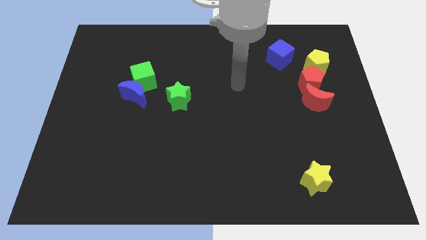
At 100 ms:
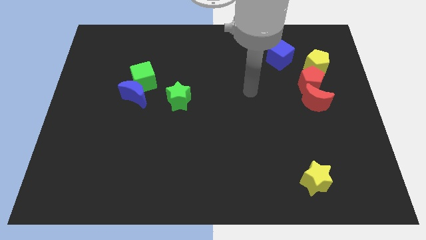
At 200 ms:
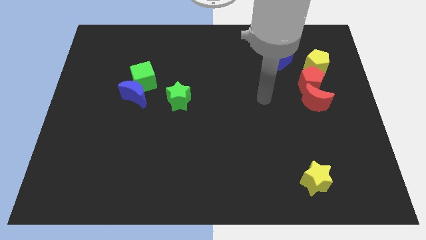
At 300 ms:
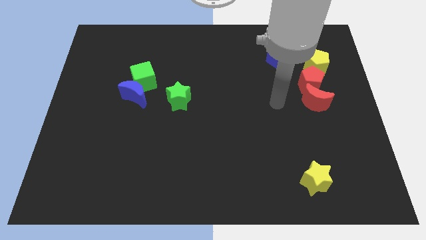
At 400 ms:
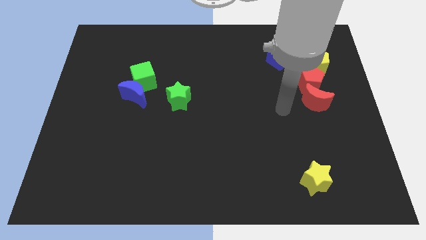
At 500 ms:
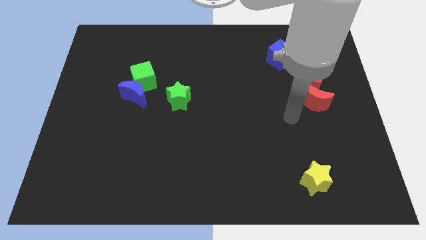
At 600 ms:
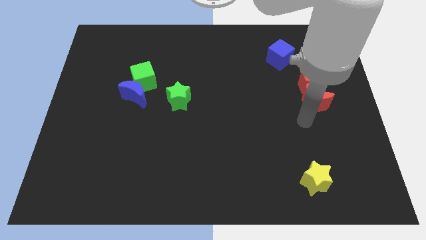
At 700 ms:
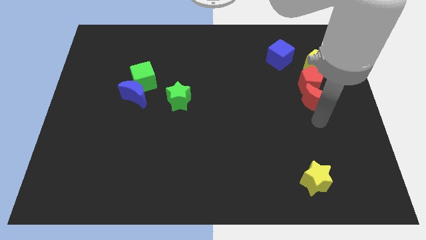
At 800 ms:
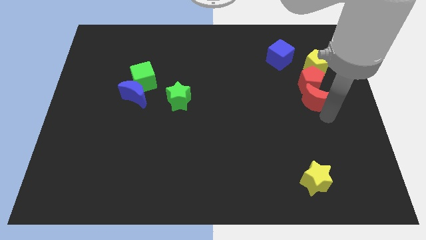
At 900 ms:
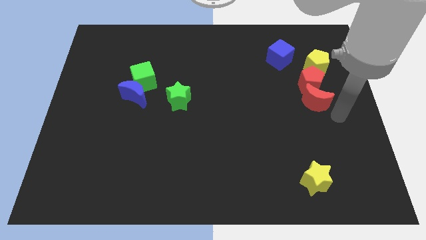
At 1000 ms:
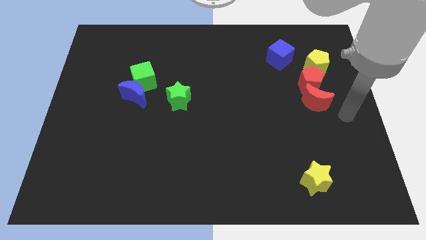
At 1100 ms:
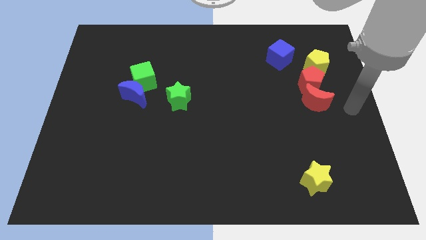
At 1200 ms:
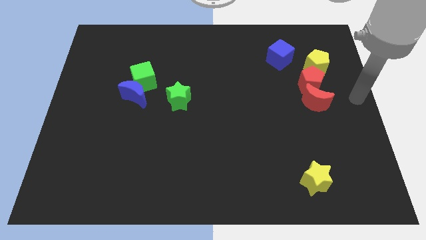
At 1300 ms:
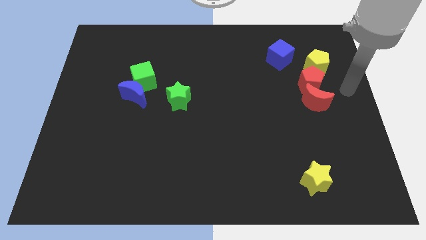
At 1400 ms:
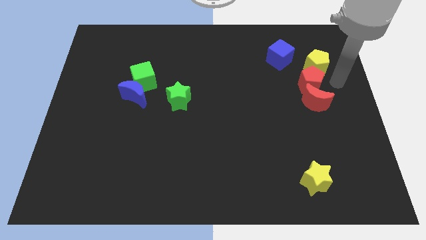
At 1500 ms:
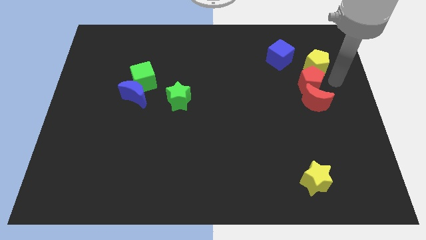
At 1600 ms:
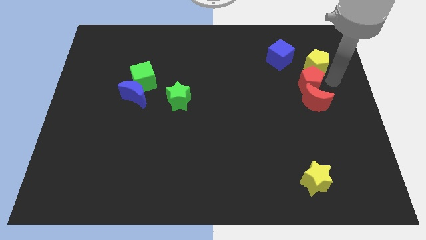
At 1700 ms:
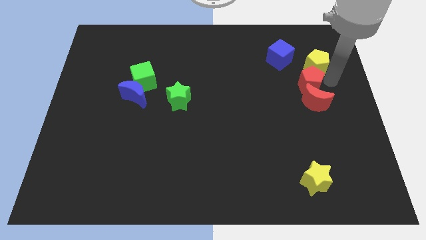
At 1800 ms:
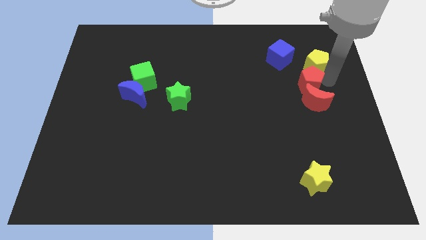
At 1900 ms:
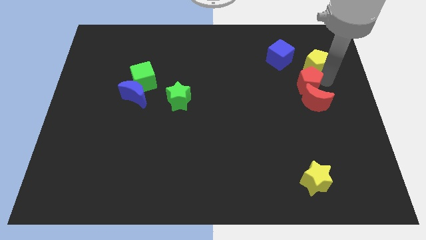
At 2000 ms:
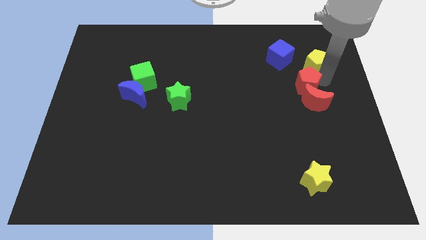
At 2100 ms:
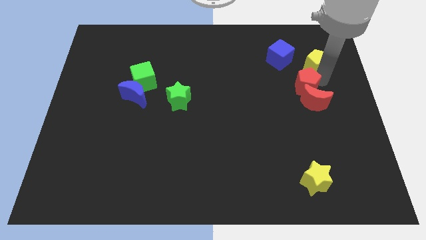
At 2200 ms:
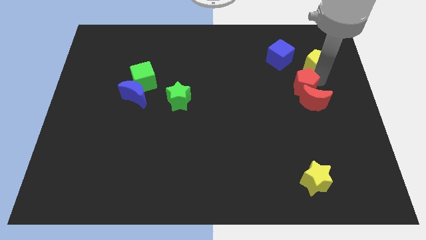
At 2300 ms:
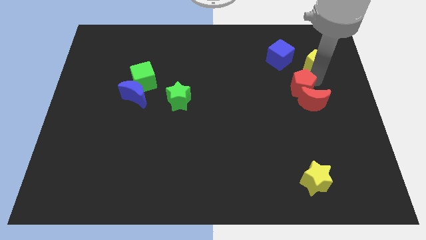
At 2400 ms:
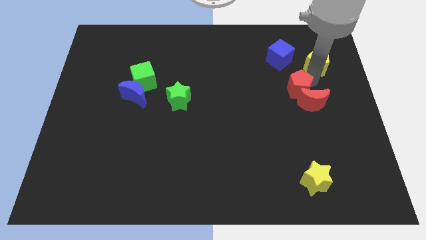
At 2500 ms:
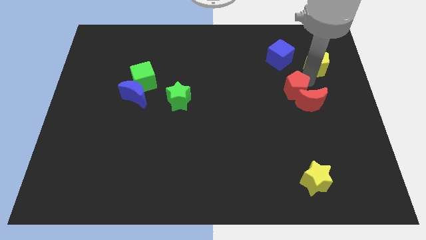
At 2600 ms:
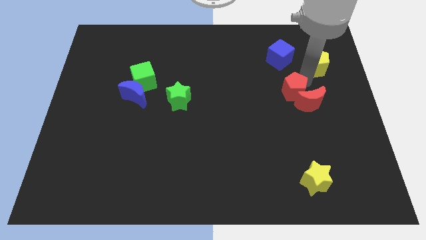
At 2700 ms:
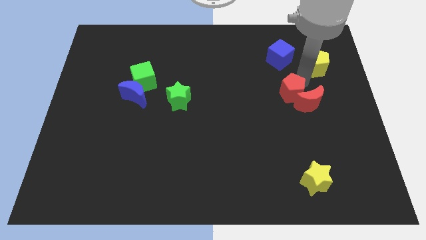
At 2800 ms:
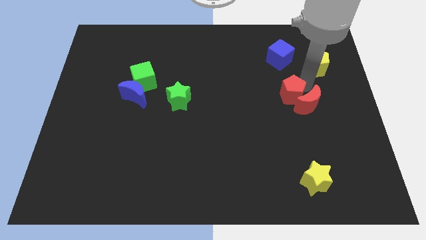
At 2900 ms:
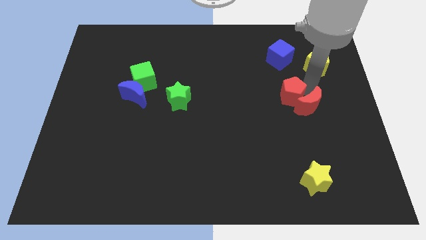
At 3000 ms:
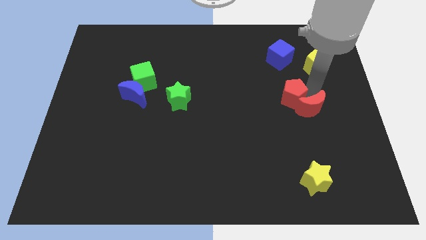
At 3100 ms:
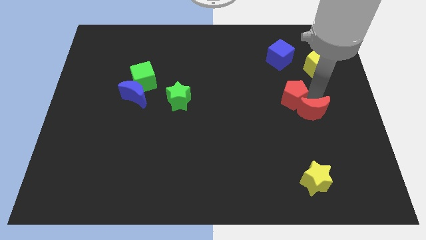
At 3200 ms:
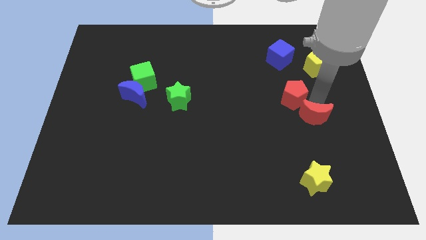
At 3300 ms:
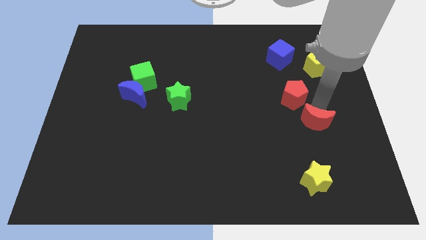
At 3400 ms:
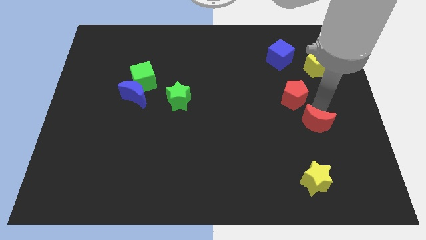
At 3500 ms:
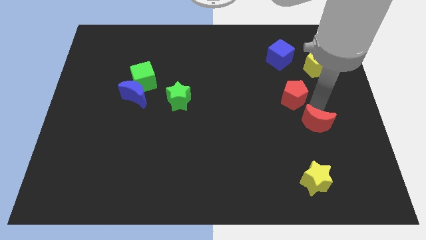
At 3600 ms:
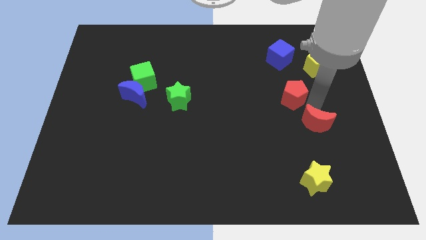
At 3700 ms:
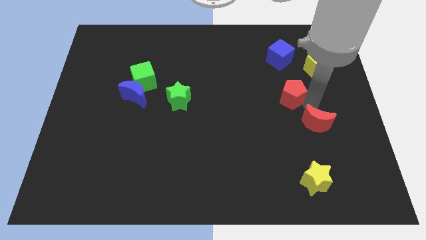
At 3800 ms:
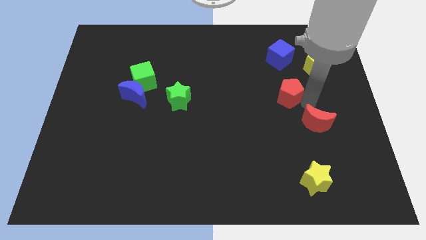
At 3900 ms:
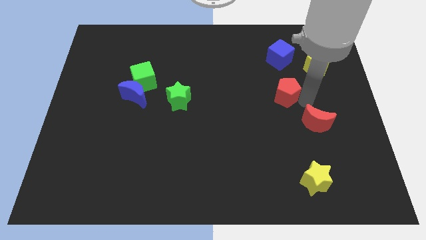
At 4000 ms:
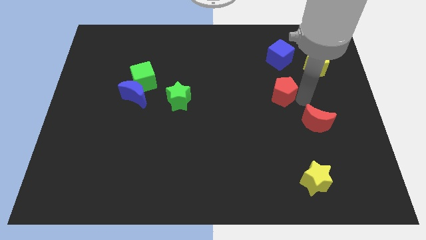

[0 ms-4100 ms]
slide the red pentagon a little left

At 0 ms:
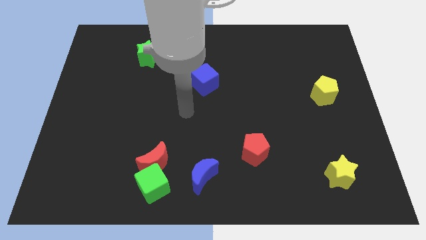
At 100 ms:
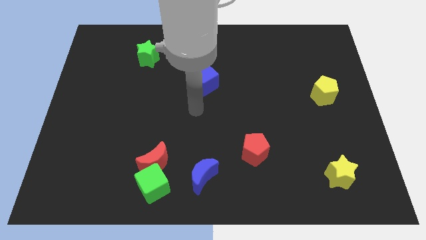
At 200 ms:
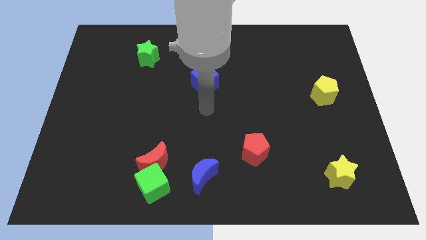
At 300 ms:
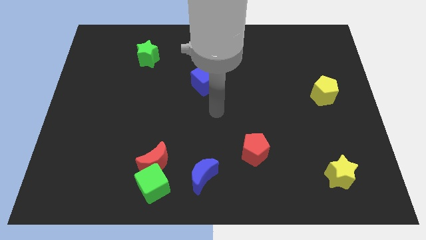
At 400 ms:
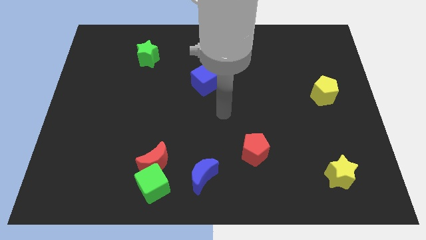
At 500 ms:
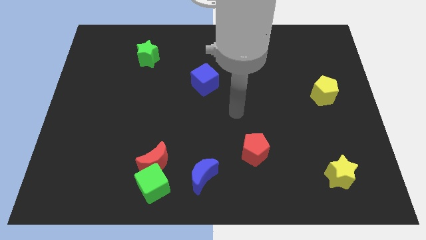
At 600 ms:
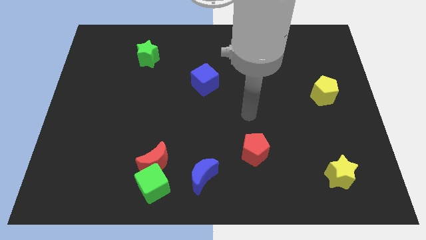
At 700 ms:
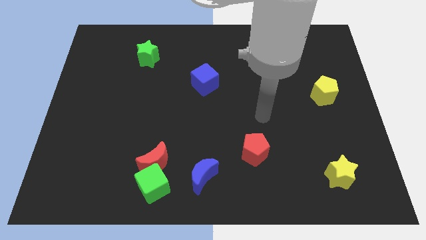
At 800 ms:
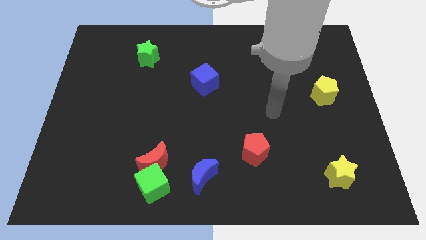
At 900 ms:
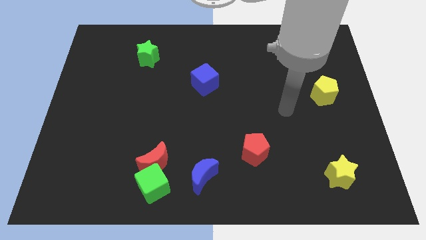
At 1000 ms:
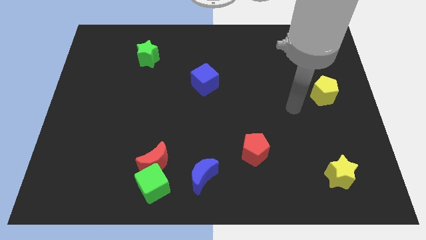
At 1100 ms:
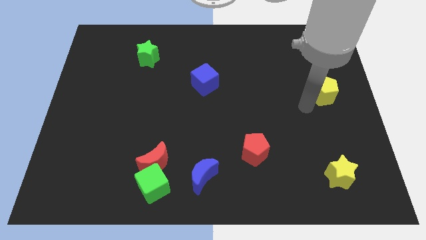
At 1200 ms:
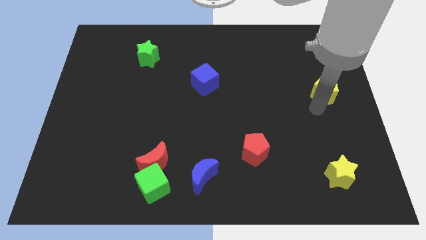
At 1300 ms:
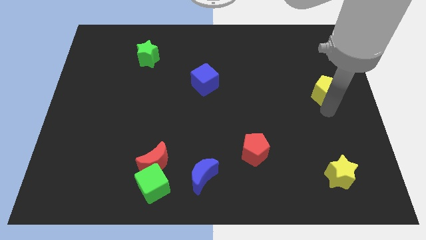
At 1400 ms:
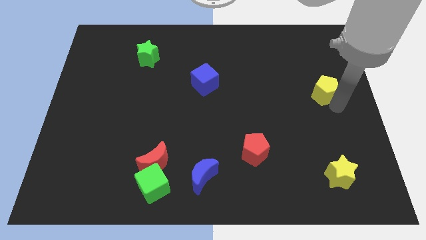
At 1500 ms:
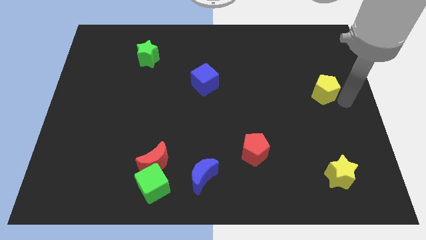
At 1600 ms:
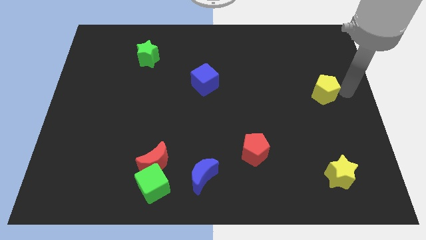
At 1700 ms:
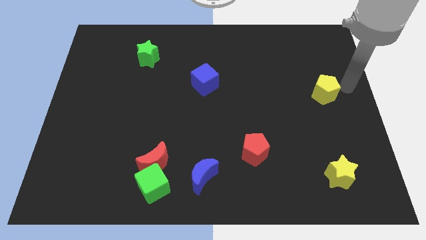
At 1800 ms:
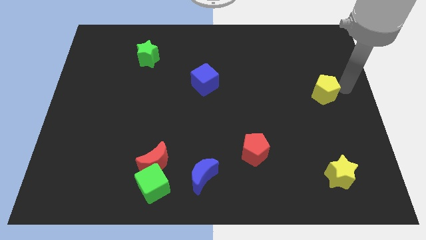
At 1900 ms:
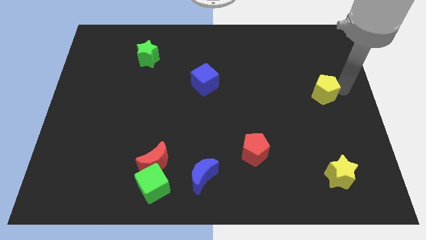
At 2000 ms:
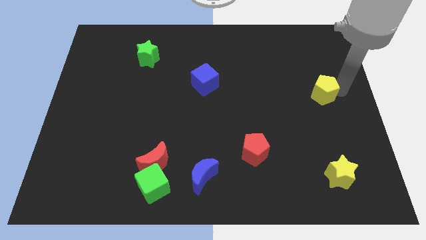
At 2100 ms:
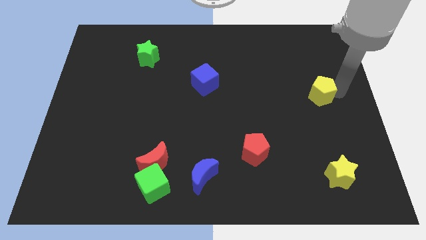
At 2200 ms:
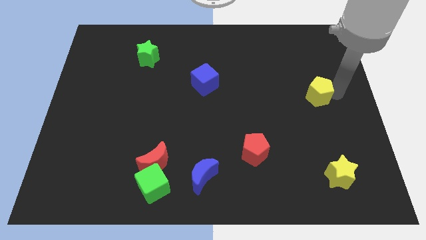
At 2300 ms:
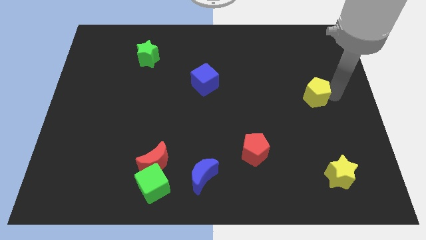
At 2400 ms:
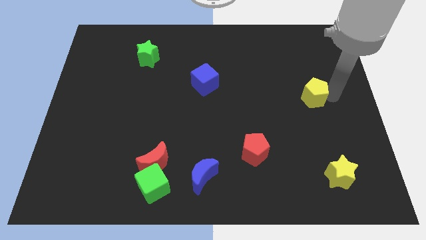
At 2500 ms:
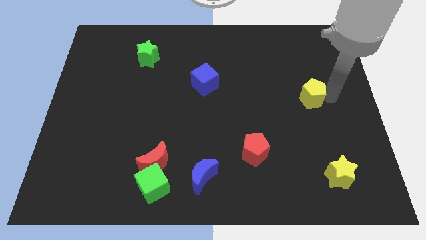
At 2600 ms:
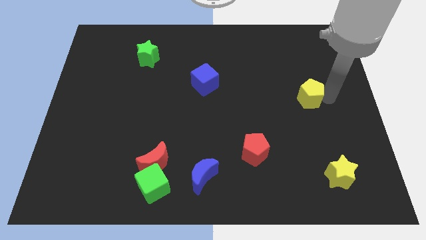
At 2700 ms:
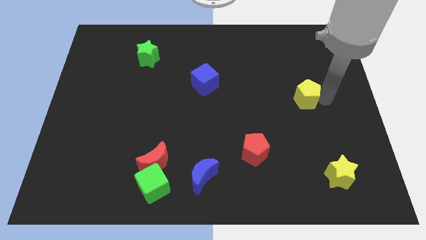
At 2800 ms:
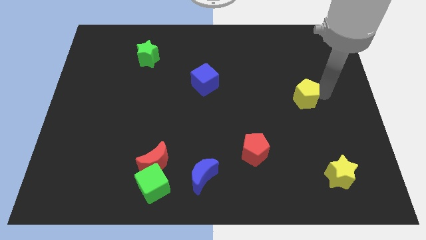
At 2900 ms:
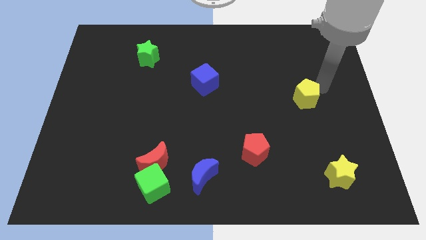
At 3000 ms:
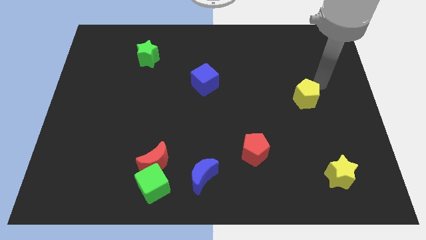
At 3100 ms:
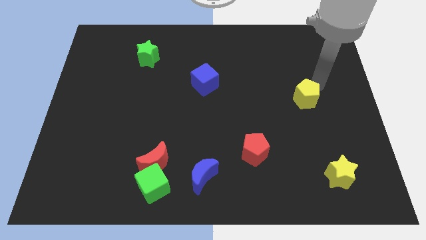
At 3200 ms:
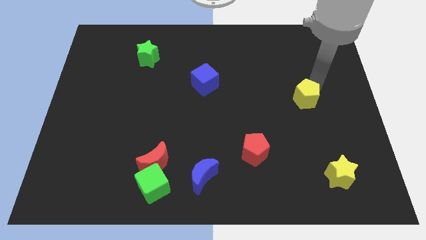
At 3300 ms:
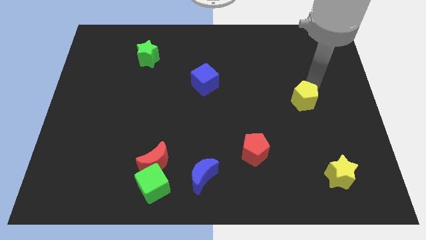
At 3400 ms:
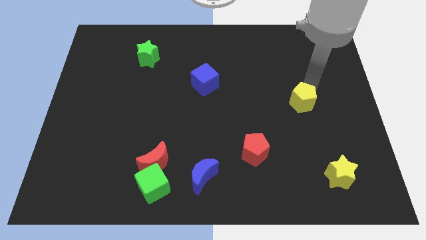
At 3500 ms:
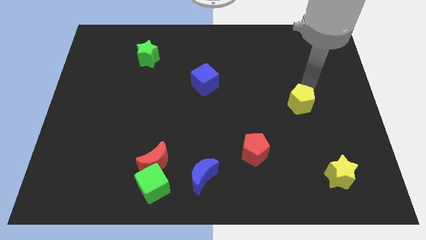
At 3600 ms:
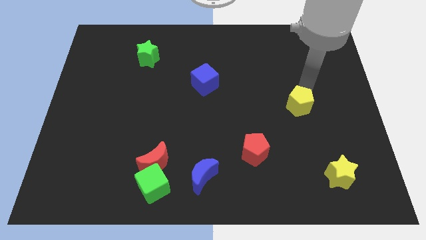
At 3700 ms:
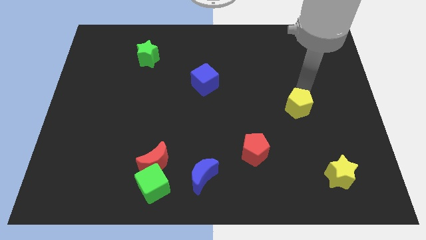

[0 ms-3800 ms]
slightly move the yellow pentagon down and to the left diagonally

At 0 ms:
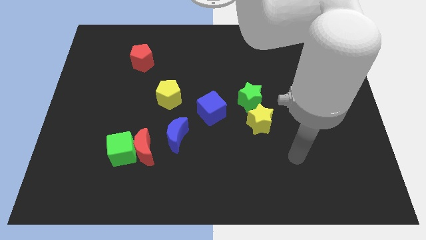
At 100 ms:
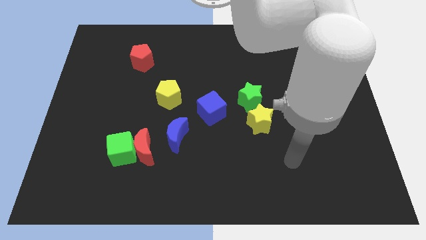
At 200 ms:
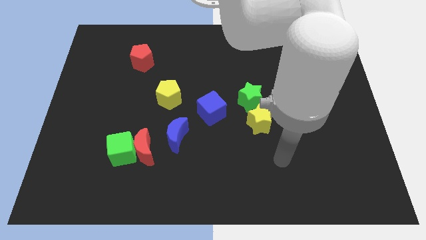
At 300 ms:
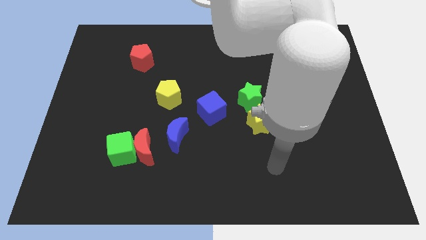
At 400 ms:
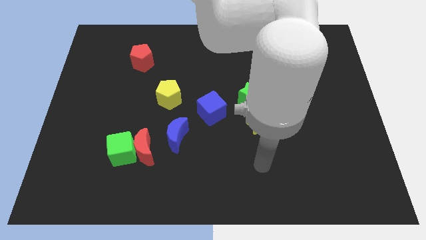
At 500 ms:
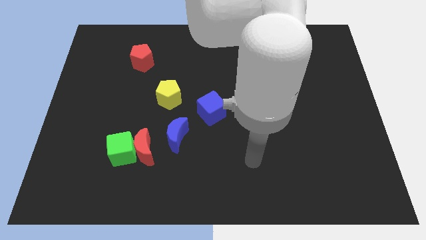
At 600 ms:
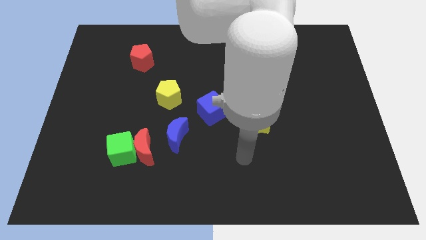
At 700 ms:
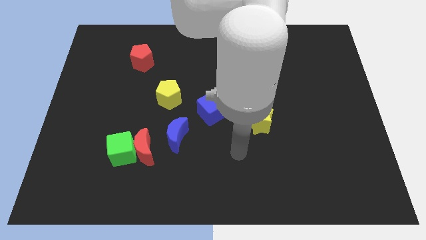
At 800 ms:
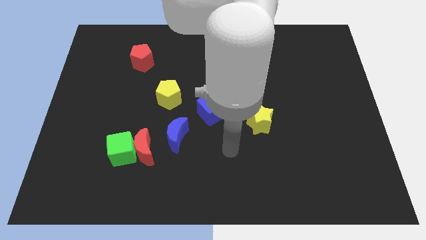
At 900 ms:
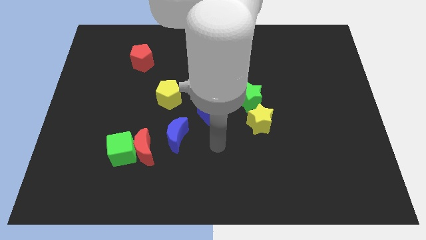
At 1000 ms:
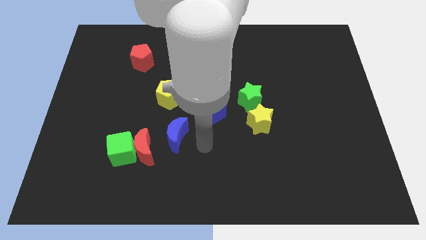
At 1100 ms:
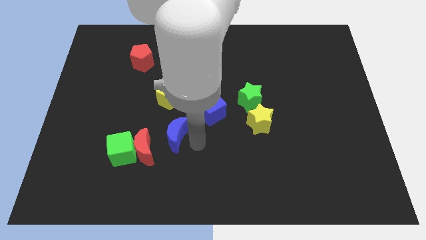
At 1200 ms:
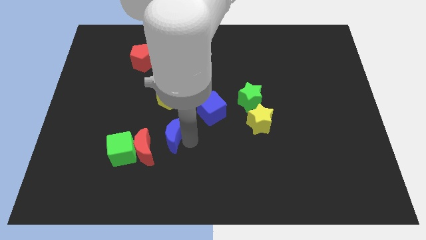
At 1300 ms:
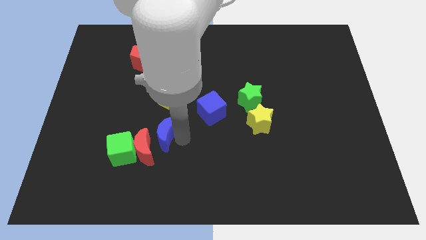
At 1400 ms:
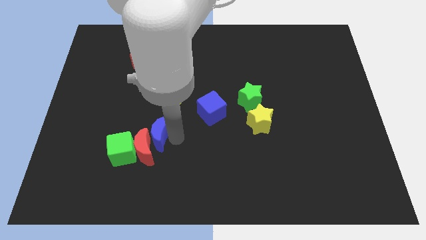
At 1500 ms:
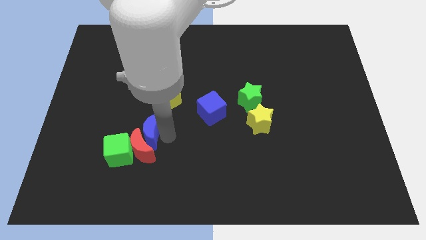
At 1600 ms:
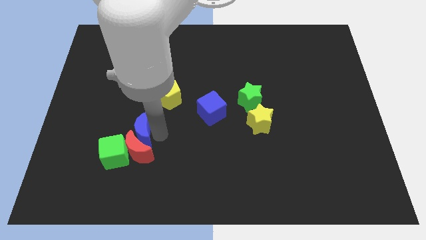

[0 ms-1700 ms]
move the blue moon left somewhat
